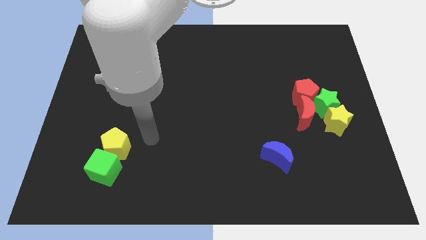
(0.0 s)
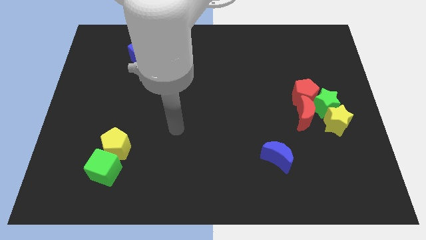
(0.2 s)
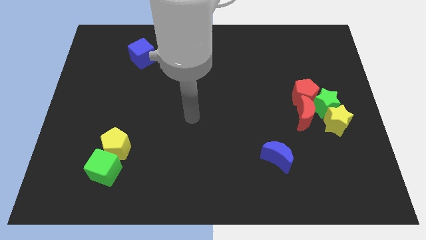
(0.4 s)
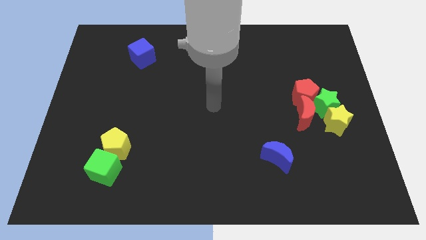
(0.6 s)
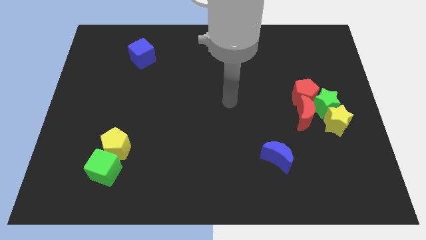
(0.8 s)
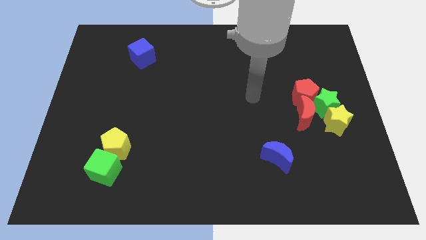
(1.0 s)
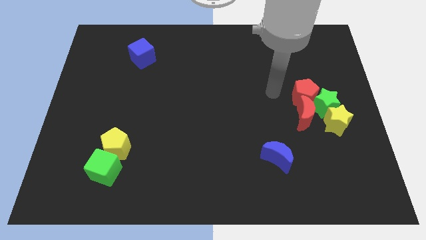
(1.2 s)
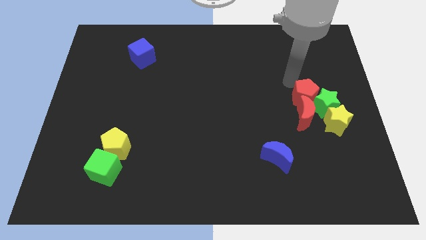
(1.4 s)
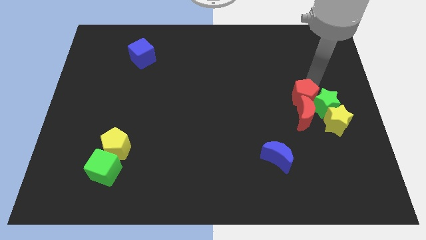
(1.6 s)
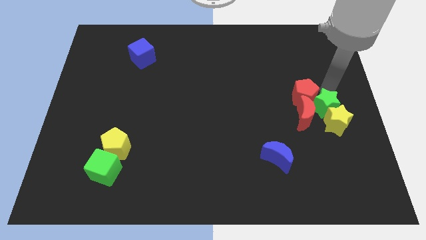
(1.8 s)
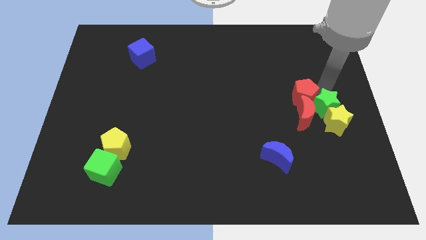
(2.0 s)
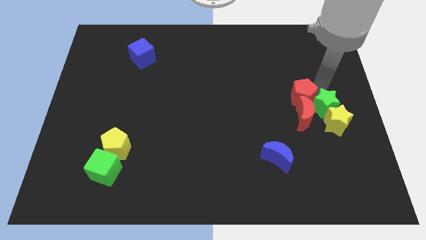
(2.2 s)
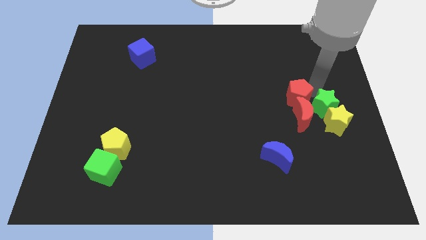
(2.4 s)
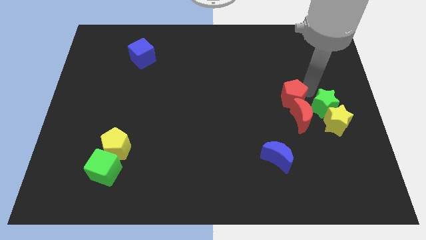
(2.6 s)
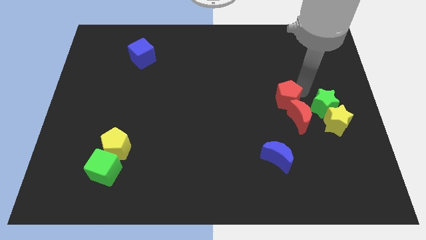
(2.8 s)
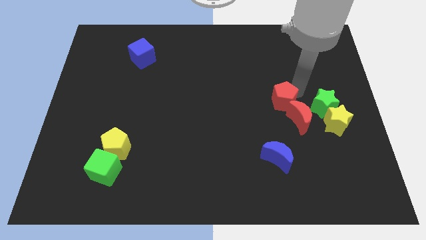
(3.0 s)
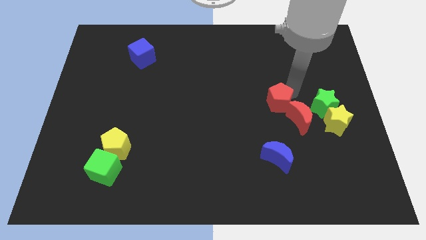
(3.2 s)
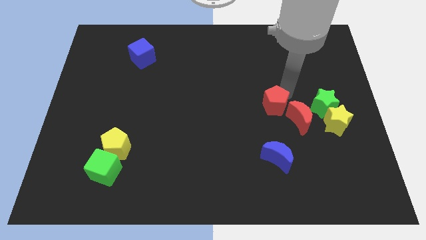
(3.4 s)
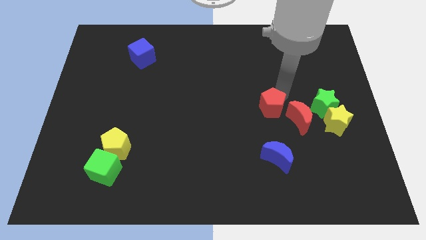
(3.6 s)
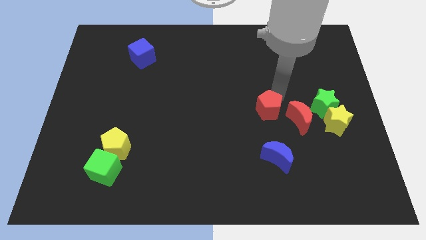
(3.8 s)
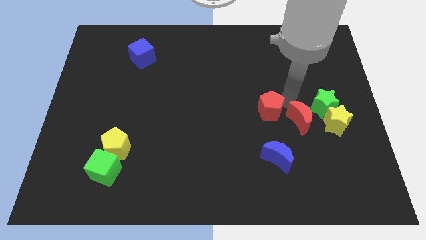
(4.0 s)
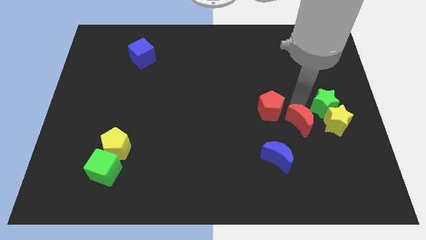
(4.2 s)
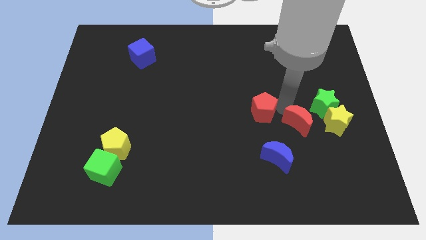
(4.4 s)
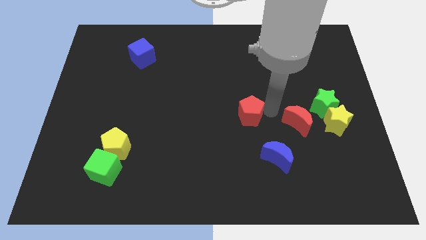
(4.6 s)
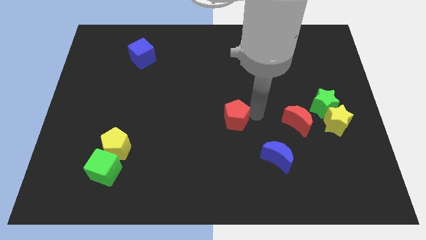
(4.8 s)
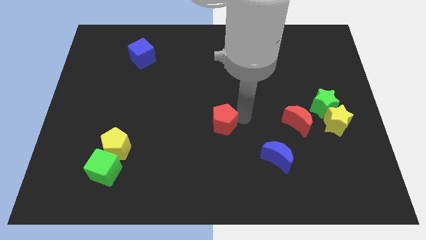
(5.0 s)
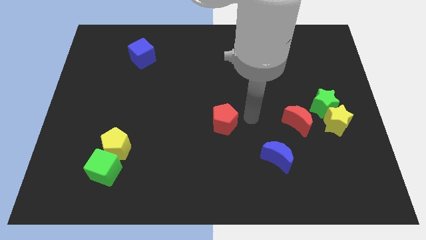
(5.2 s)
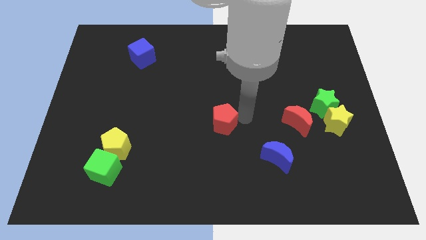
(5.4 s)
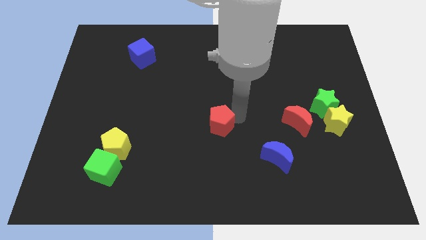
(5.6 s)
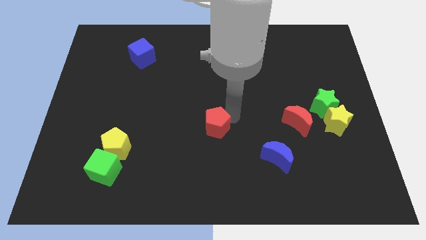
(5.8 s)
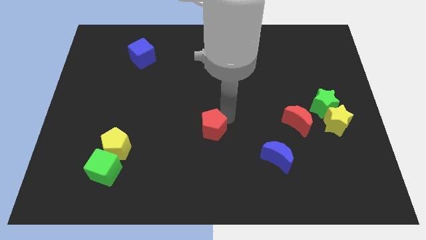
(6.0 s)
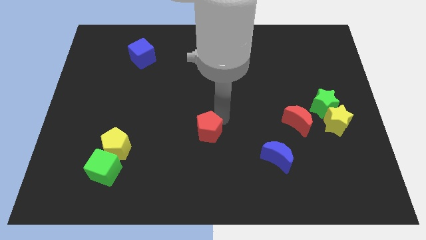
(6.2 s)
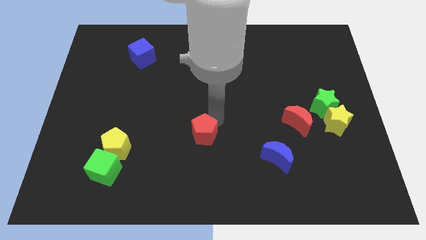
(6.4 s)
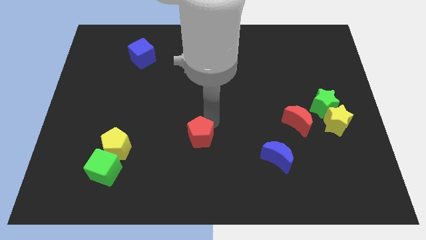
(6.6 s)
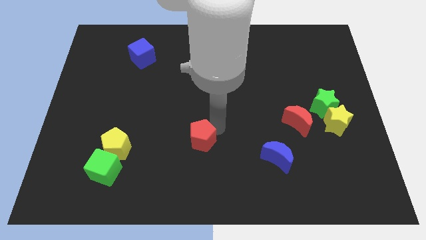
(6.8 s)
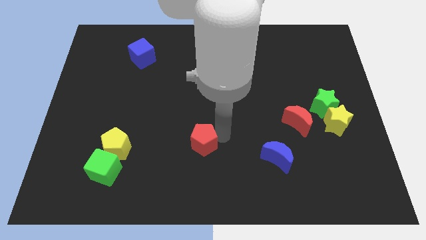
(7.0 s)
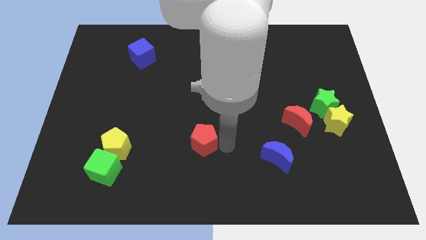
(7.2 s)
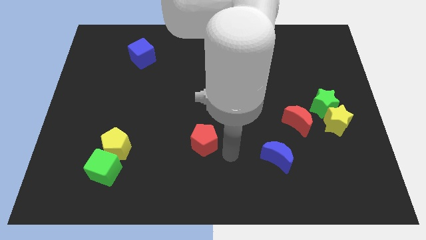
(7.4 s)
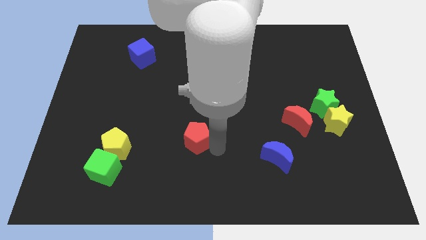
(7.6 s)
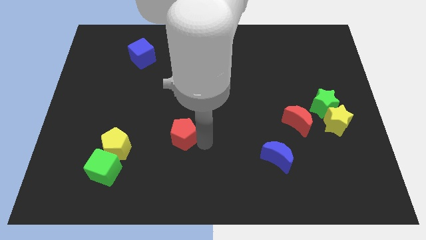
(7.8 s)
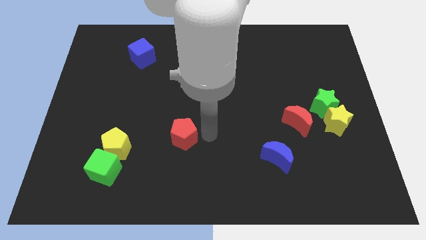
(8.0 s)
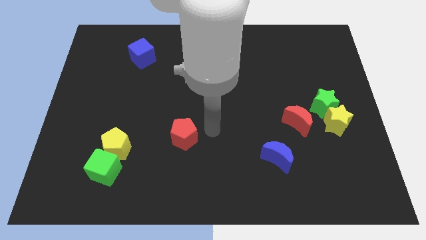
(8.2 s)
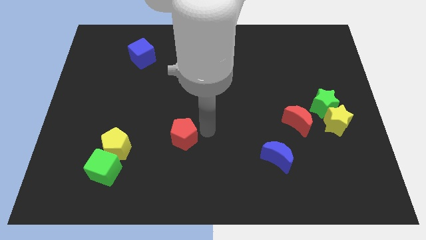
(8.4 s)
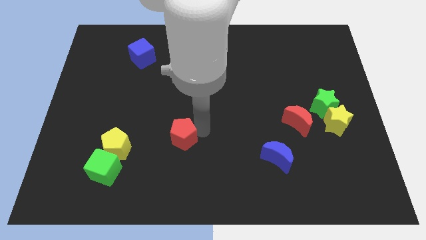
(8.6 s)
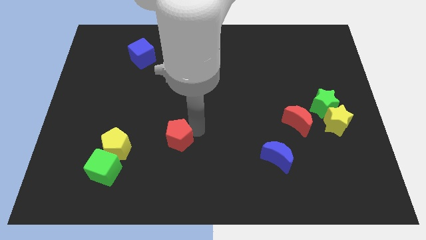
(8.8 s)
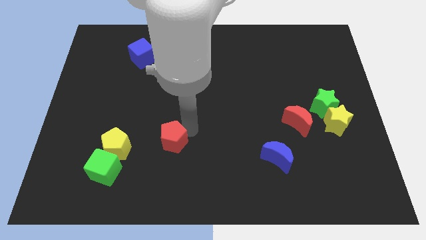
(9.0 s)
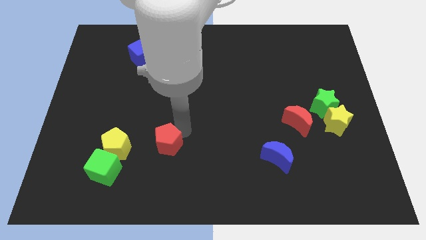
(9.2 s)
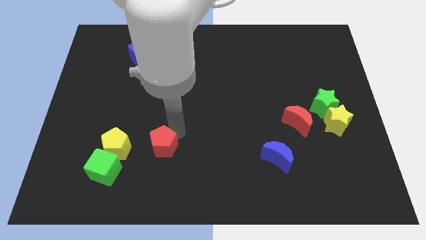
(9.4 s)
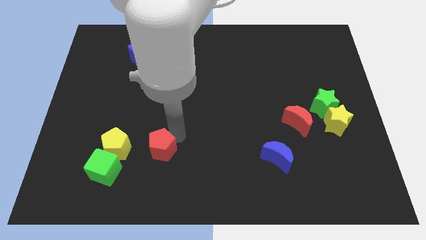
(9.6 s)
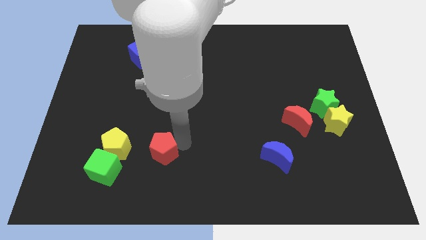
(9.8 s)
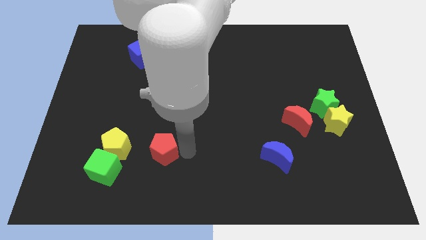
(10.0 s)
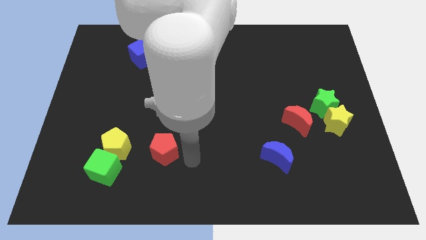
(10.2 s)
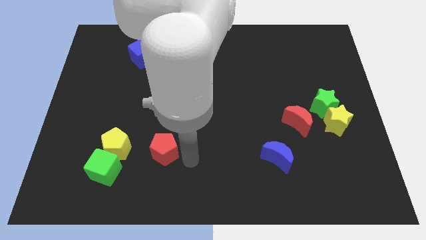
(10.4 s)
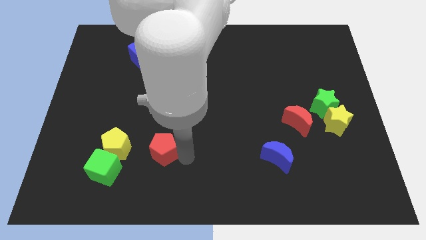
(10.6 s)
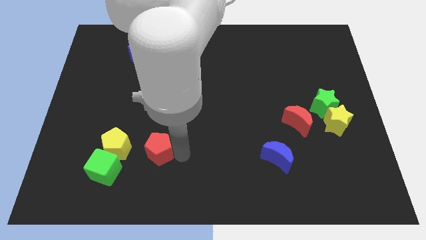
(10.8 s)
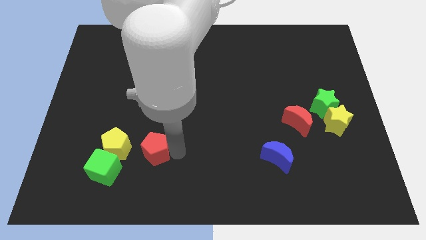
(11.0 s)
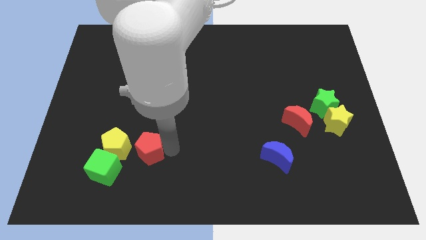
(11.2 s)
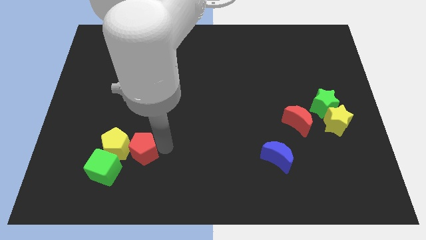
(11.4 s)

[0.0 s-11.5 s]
move the red pentagon to the yellow pentagon

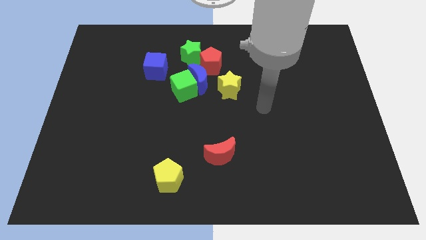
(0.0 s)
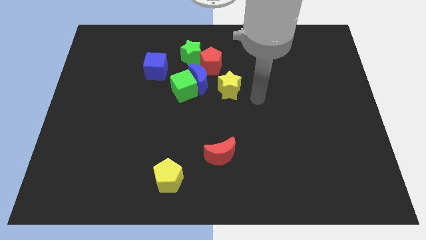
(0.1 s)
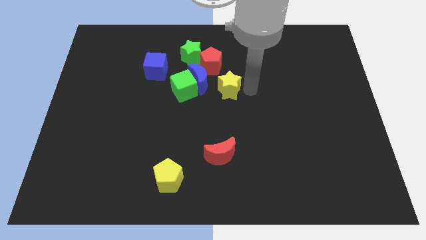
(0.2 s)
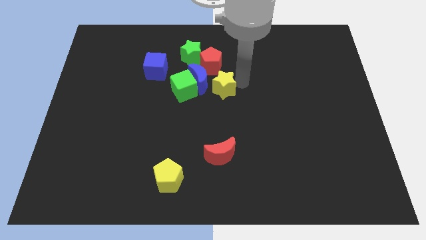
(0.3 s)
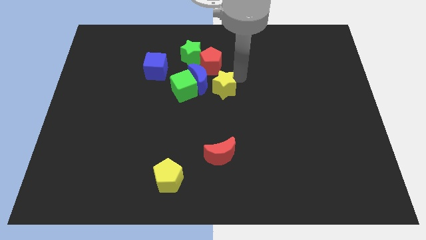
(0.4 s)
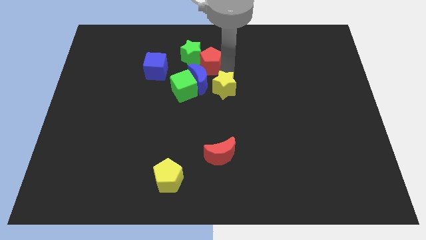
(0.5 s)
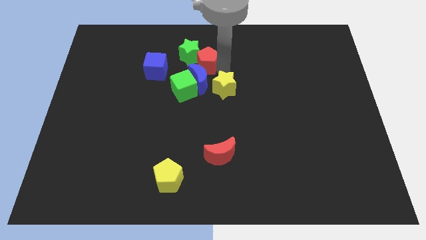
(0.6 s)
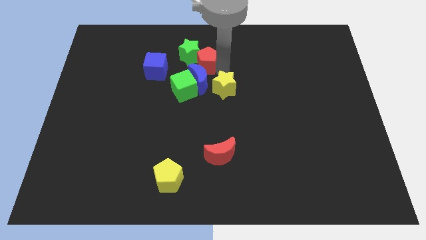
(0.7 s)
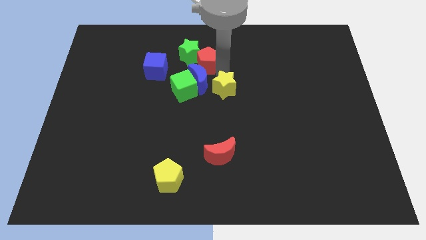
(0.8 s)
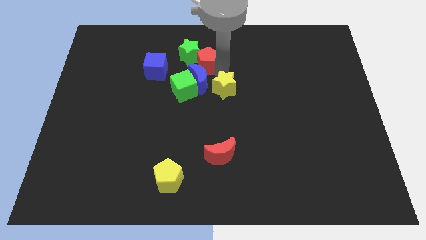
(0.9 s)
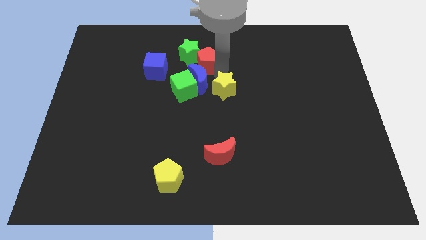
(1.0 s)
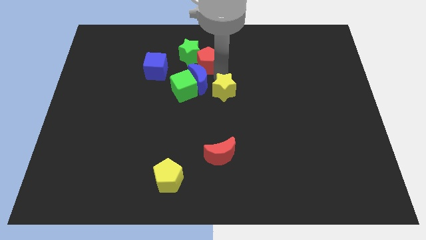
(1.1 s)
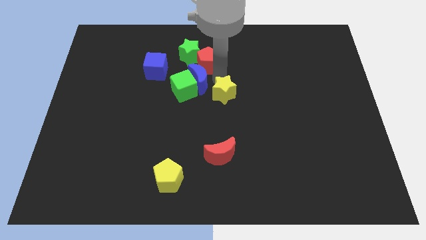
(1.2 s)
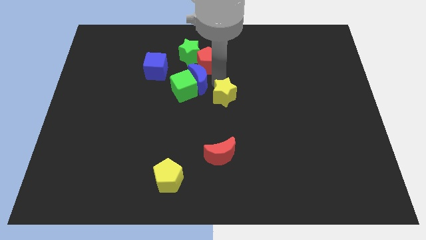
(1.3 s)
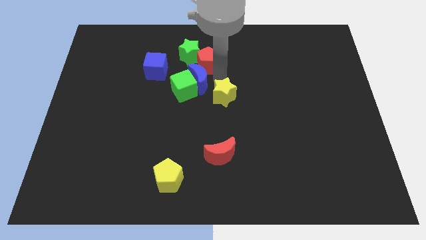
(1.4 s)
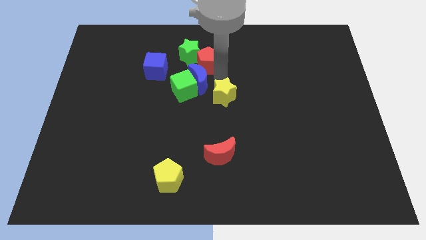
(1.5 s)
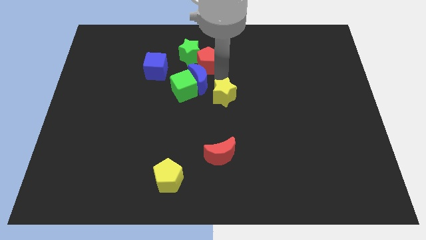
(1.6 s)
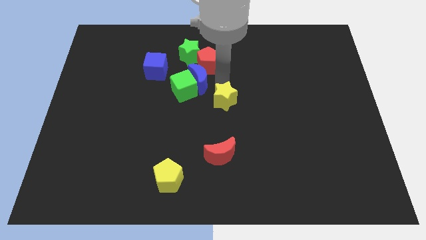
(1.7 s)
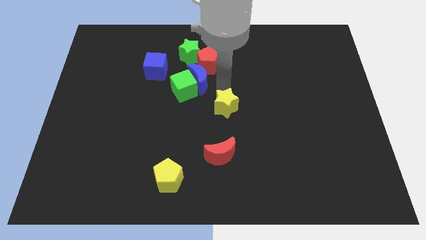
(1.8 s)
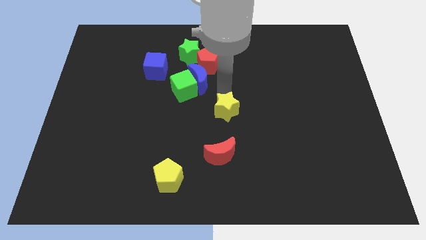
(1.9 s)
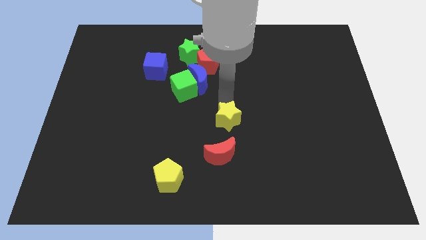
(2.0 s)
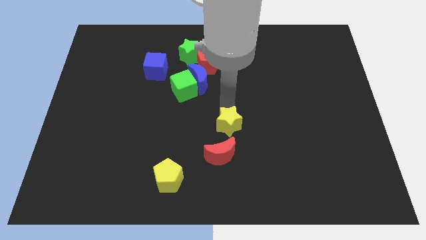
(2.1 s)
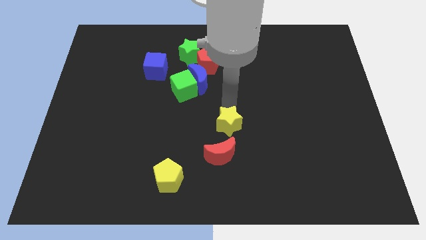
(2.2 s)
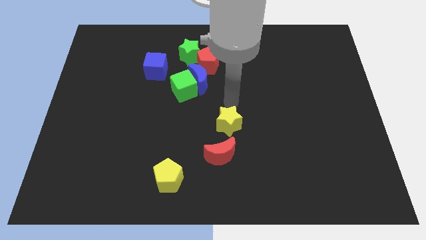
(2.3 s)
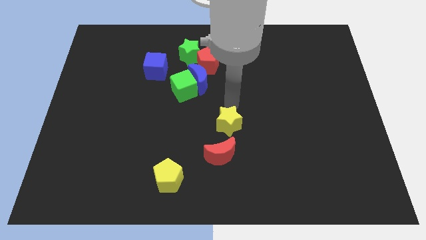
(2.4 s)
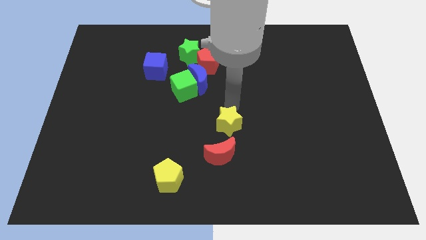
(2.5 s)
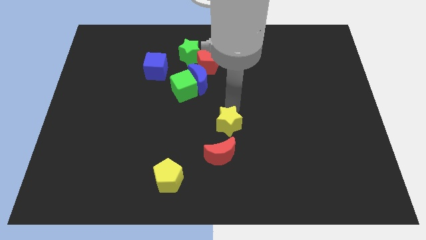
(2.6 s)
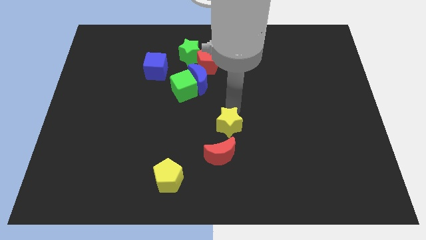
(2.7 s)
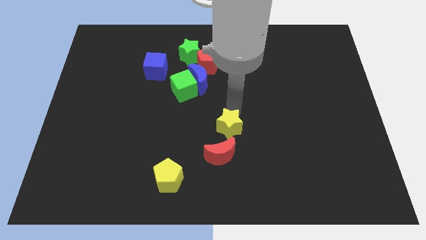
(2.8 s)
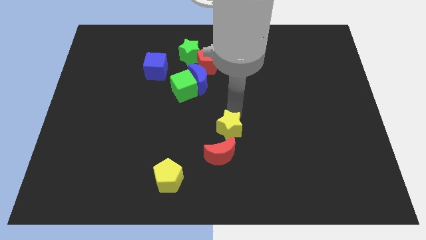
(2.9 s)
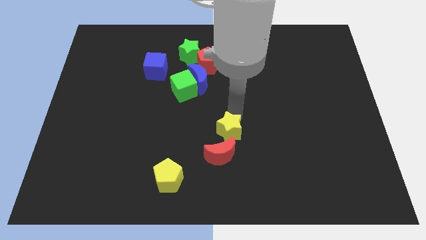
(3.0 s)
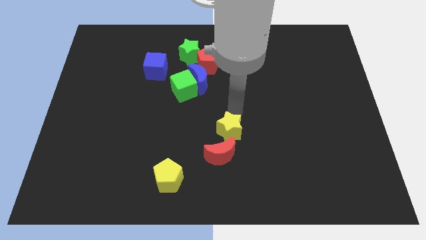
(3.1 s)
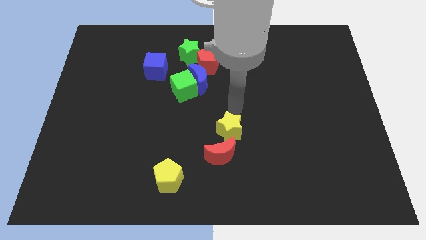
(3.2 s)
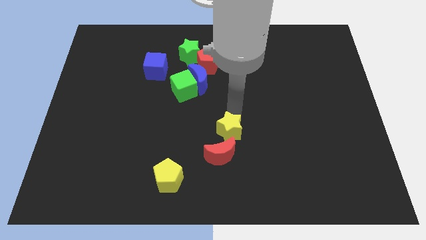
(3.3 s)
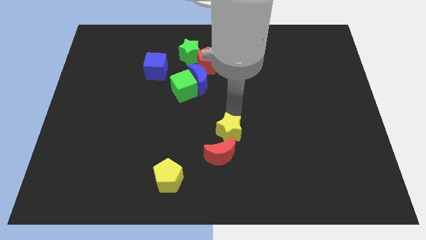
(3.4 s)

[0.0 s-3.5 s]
put the yellow star towards the red moon
